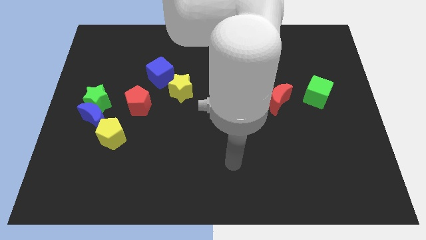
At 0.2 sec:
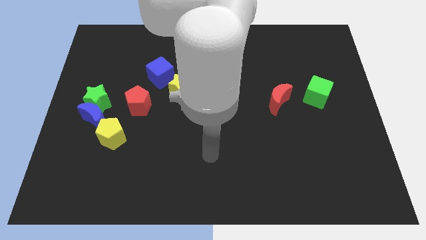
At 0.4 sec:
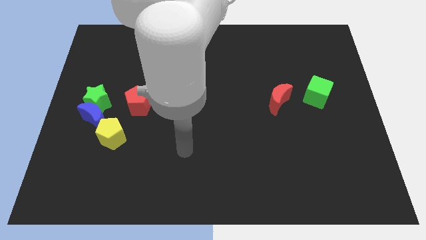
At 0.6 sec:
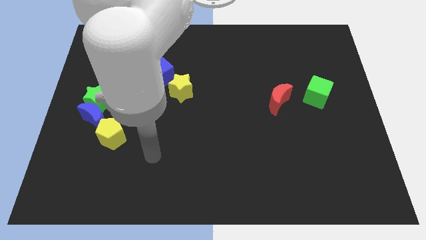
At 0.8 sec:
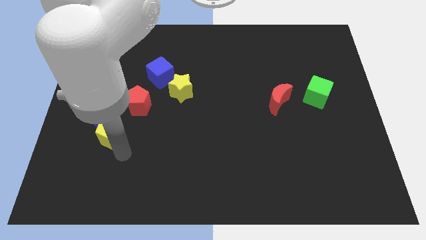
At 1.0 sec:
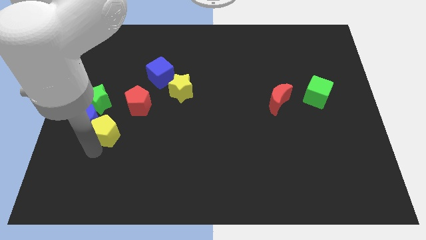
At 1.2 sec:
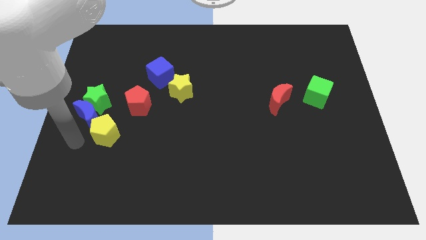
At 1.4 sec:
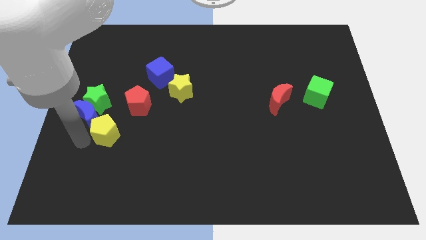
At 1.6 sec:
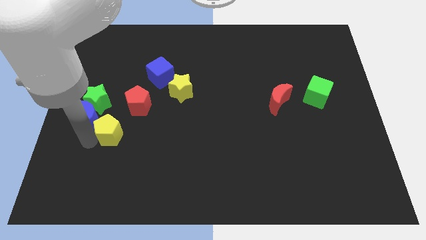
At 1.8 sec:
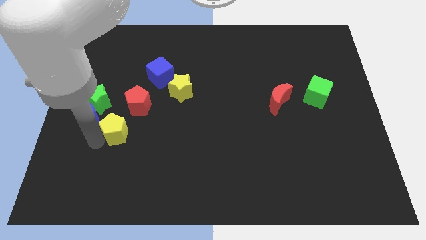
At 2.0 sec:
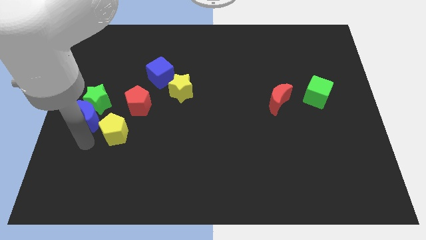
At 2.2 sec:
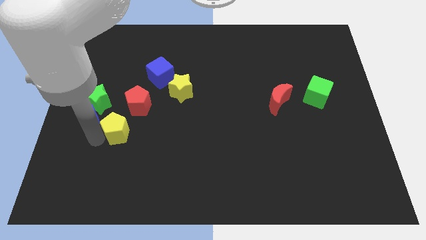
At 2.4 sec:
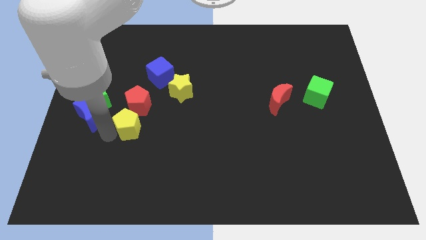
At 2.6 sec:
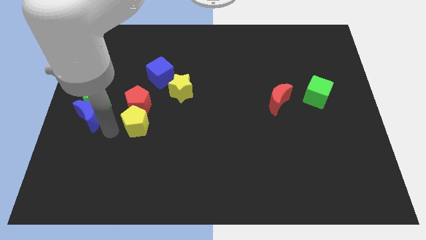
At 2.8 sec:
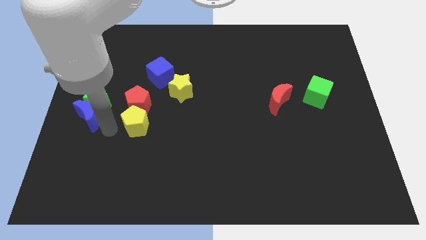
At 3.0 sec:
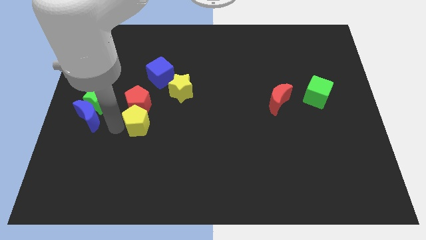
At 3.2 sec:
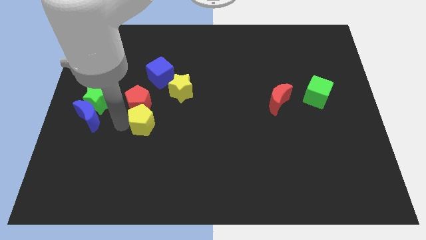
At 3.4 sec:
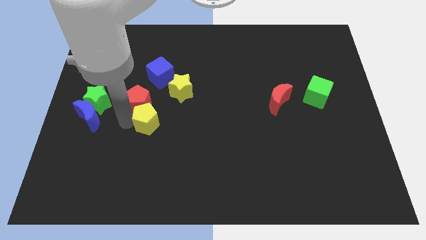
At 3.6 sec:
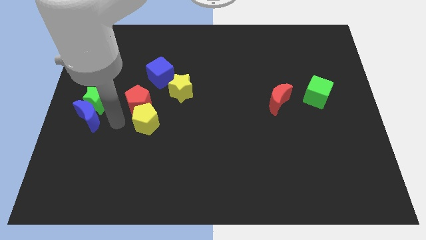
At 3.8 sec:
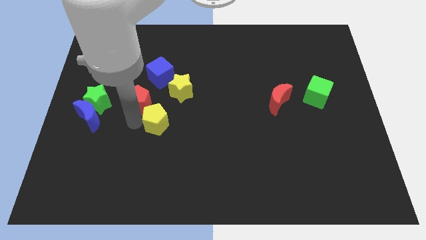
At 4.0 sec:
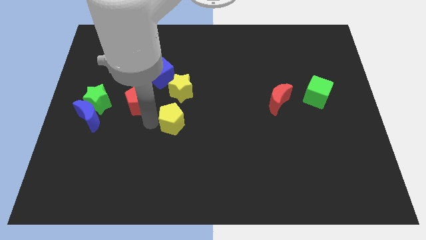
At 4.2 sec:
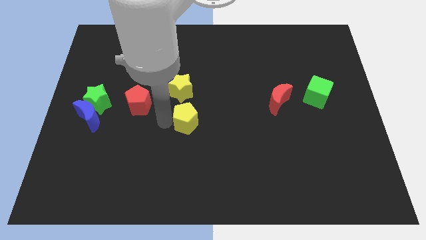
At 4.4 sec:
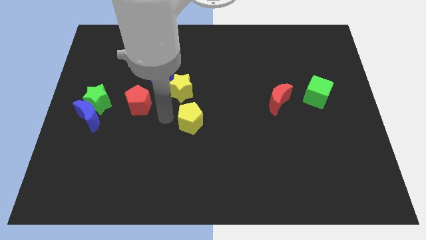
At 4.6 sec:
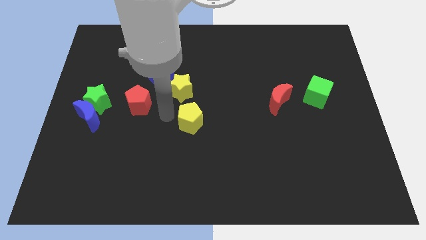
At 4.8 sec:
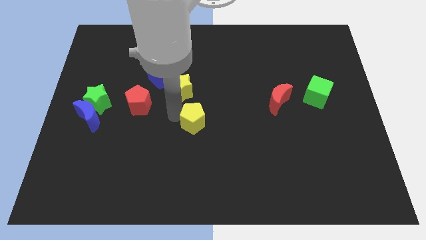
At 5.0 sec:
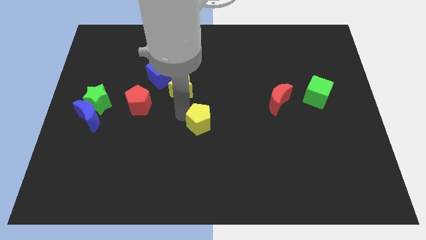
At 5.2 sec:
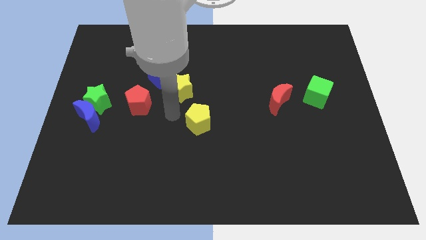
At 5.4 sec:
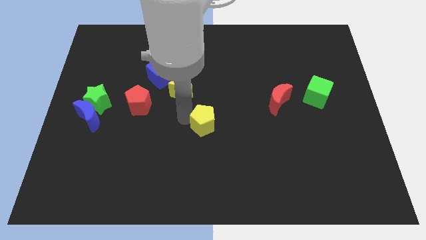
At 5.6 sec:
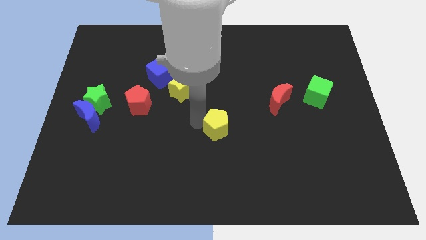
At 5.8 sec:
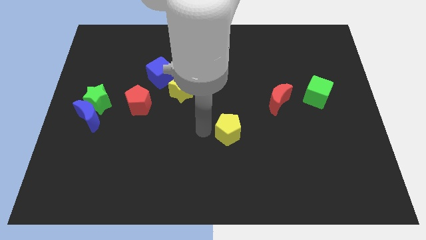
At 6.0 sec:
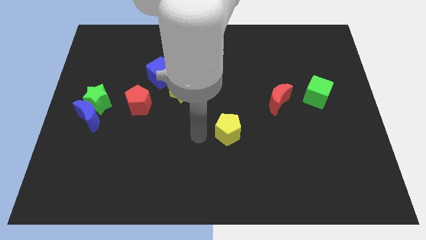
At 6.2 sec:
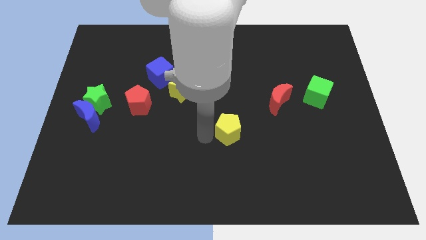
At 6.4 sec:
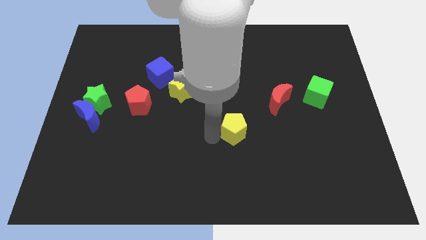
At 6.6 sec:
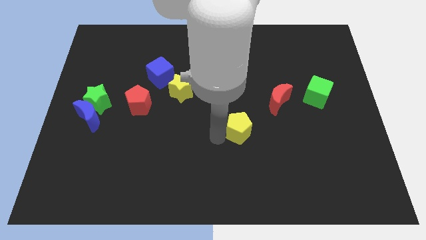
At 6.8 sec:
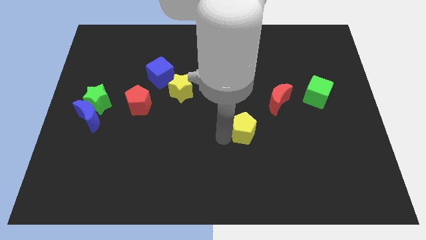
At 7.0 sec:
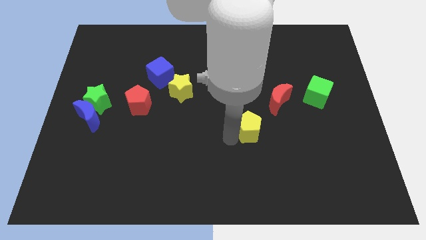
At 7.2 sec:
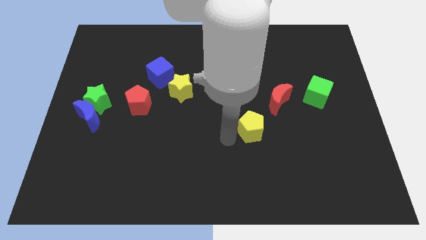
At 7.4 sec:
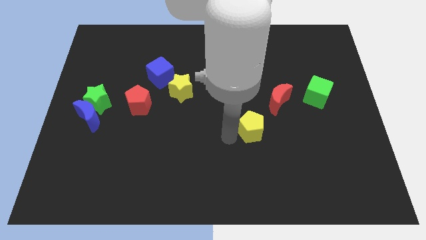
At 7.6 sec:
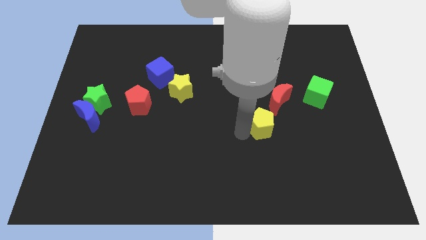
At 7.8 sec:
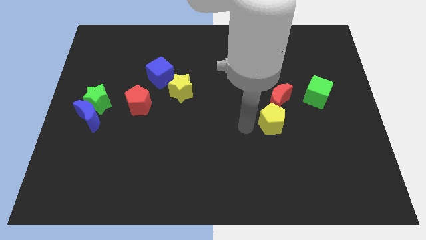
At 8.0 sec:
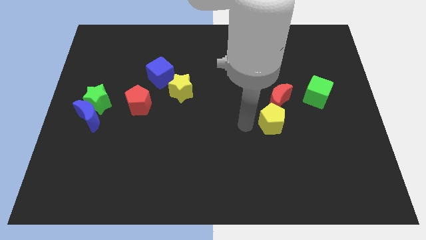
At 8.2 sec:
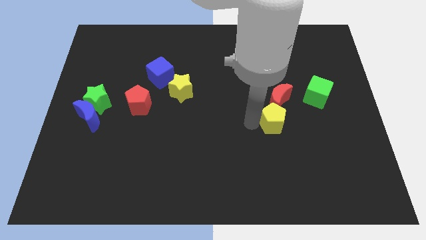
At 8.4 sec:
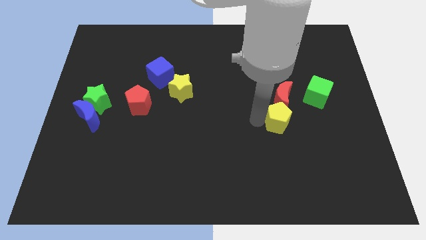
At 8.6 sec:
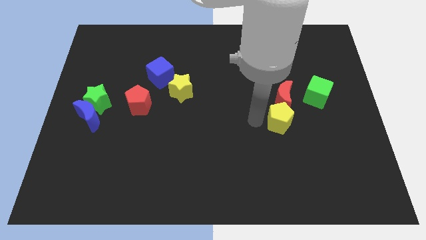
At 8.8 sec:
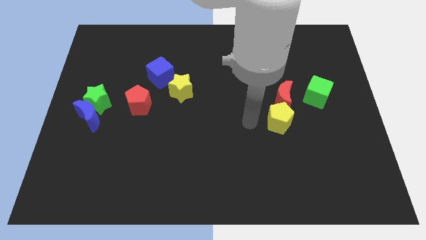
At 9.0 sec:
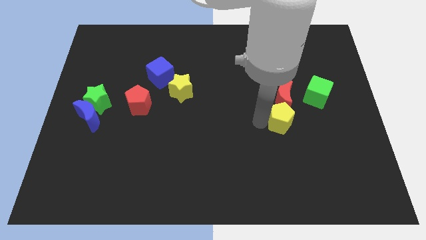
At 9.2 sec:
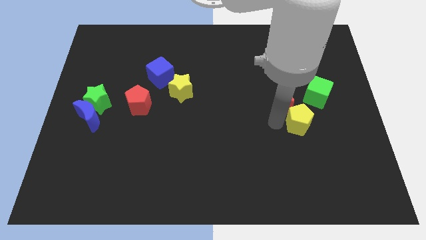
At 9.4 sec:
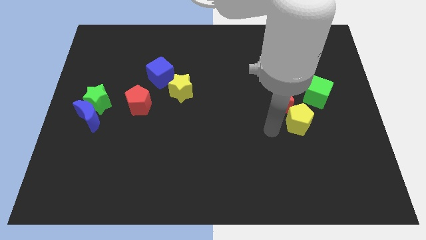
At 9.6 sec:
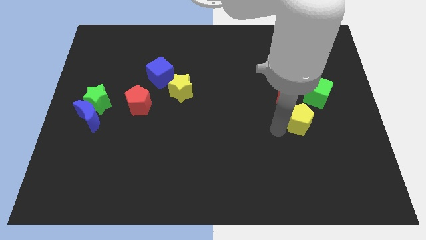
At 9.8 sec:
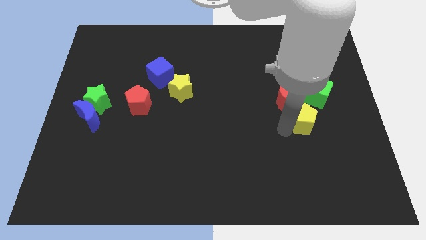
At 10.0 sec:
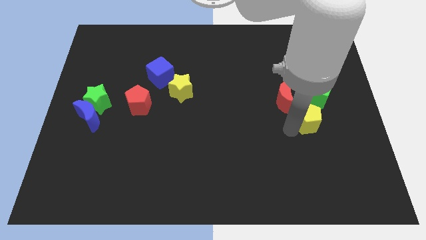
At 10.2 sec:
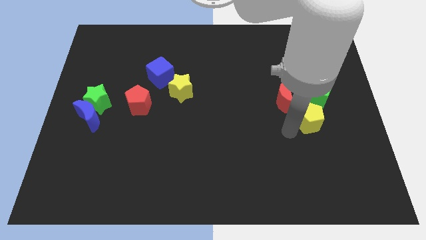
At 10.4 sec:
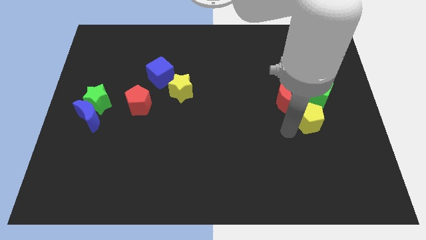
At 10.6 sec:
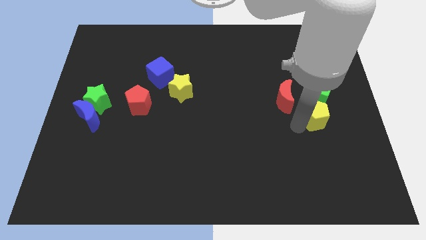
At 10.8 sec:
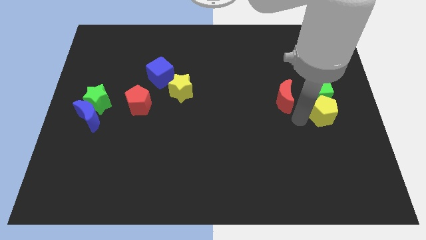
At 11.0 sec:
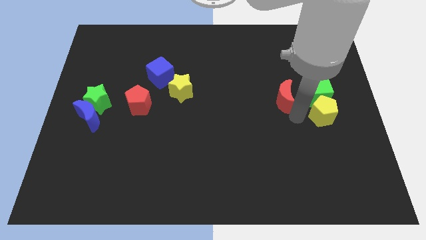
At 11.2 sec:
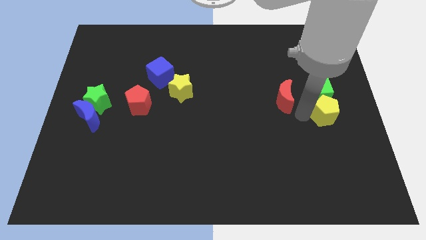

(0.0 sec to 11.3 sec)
put the yellow pentagon to the center right

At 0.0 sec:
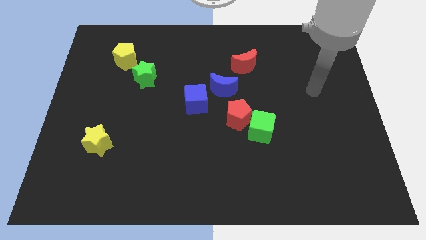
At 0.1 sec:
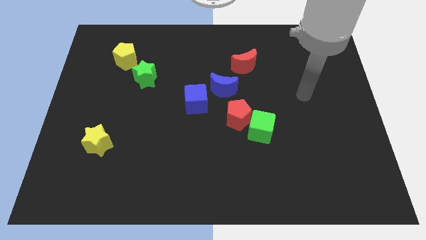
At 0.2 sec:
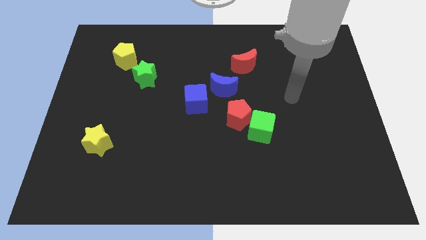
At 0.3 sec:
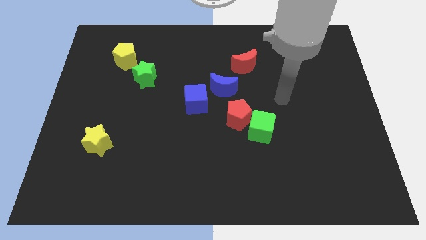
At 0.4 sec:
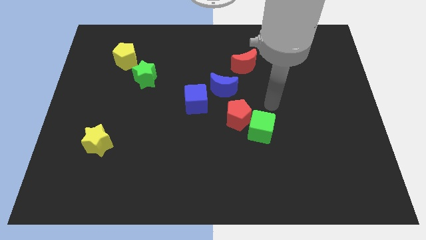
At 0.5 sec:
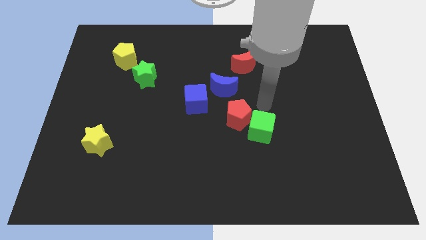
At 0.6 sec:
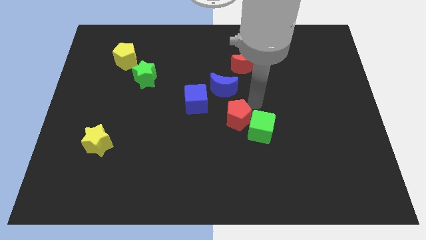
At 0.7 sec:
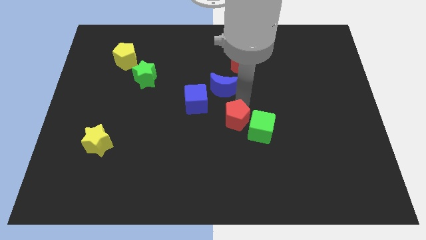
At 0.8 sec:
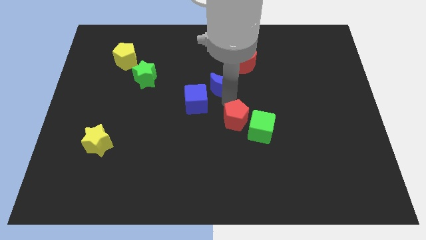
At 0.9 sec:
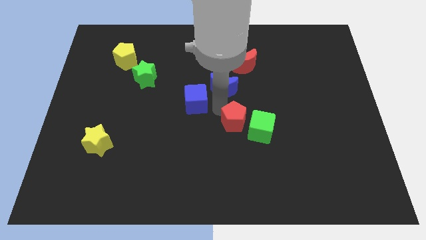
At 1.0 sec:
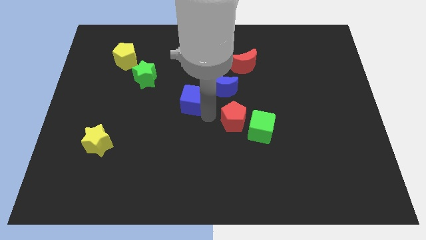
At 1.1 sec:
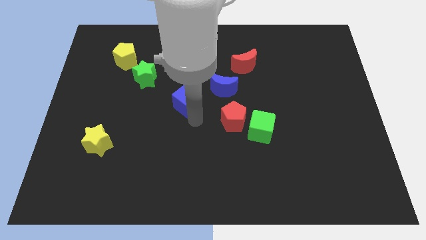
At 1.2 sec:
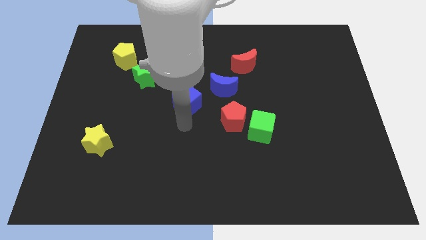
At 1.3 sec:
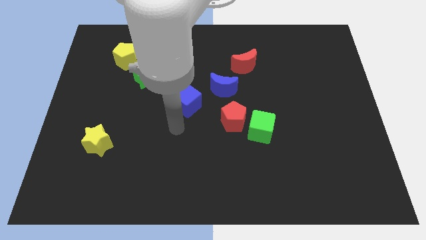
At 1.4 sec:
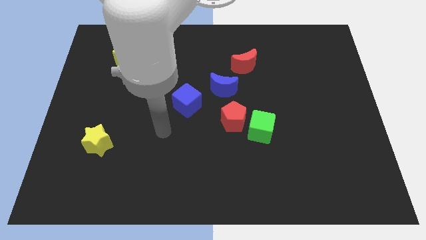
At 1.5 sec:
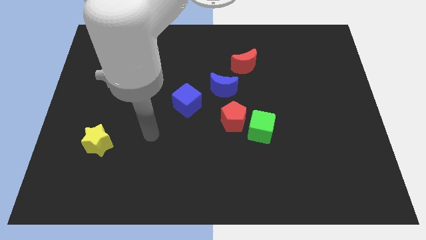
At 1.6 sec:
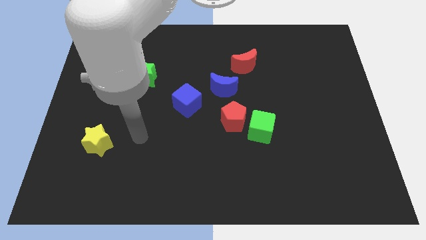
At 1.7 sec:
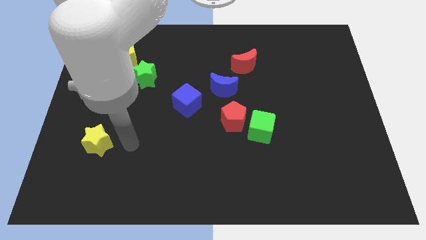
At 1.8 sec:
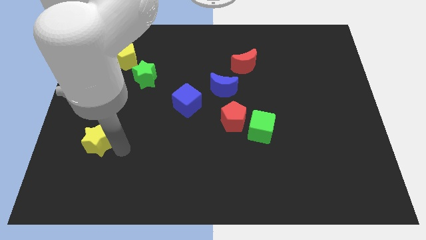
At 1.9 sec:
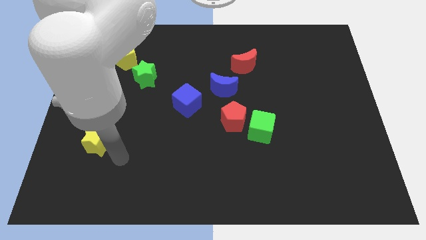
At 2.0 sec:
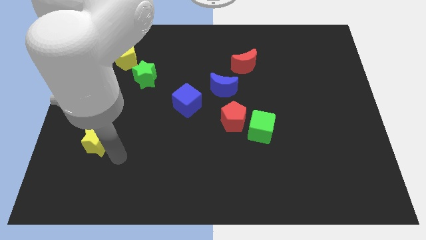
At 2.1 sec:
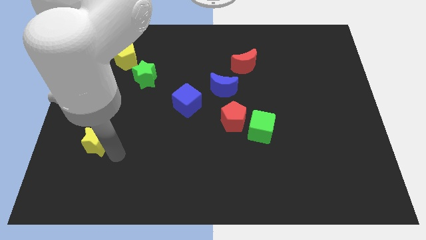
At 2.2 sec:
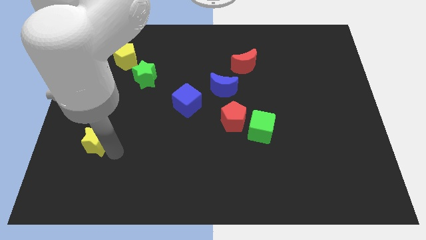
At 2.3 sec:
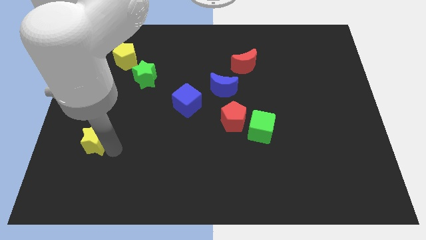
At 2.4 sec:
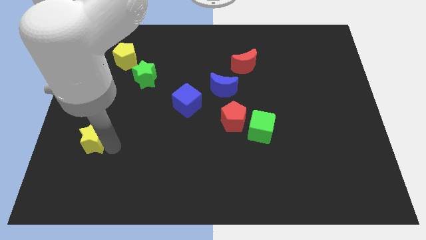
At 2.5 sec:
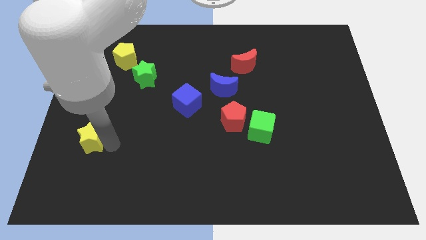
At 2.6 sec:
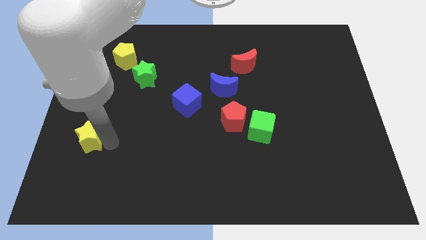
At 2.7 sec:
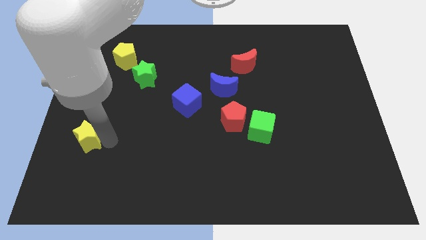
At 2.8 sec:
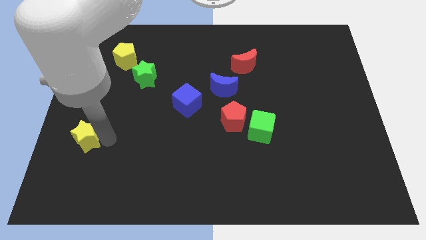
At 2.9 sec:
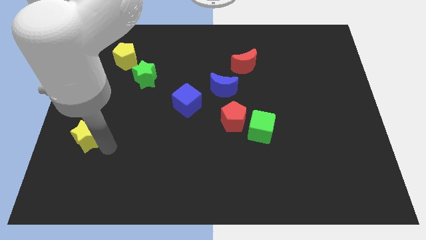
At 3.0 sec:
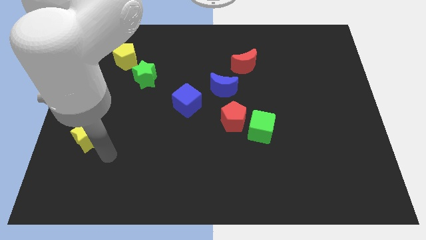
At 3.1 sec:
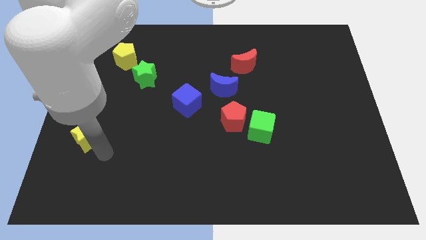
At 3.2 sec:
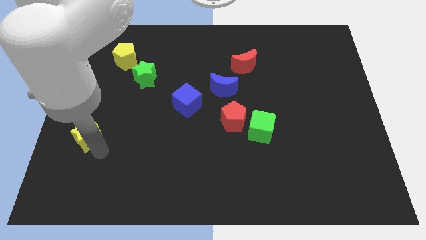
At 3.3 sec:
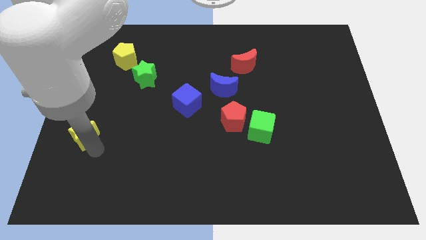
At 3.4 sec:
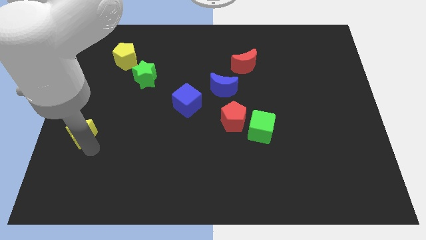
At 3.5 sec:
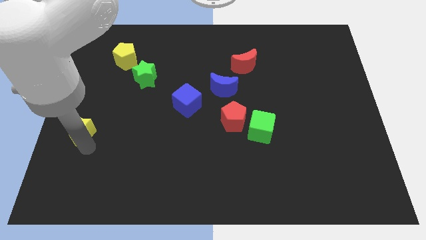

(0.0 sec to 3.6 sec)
put the yellow star to the left side
